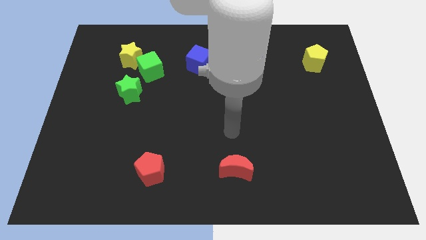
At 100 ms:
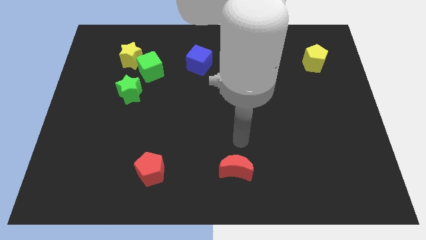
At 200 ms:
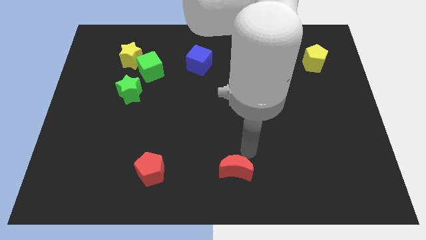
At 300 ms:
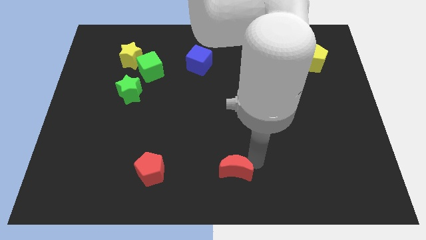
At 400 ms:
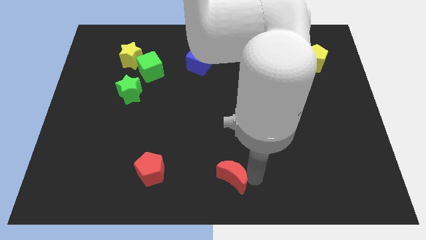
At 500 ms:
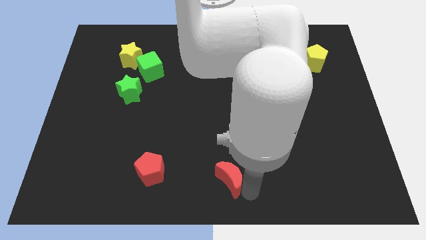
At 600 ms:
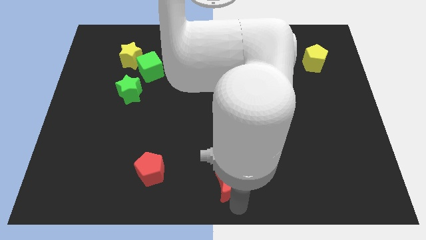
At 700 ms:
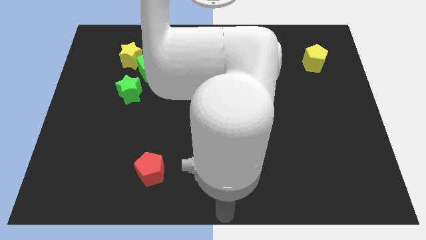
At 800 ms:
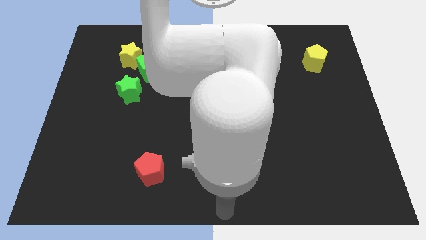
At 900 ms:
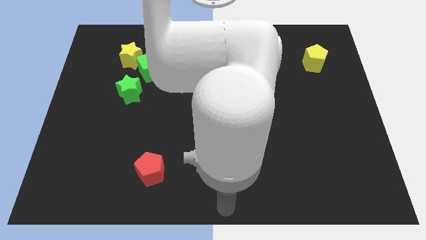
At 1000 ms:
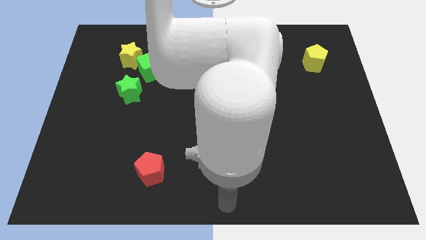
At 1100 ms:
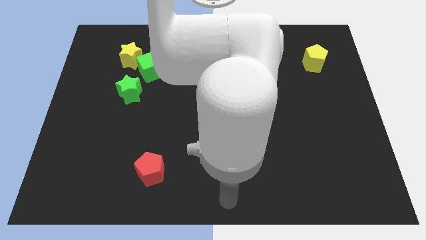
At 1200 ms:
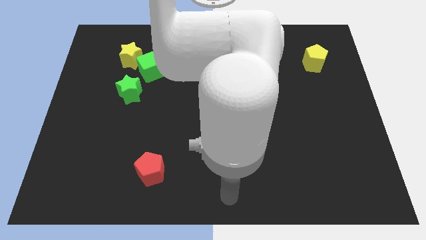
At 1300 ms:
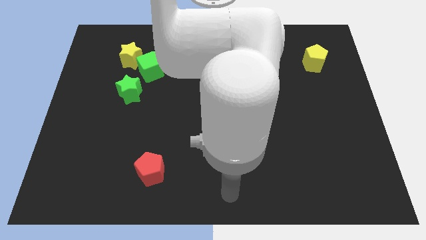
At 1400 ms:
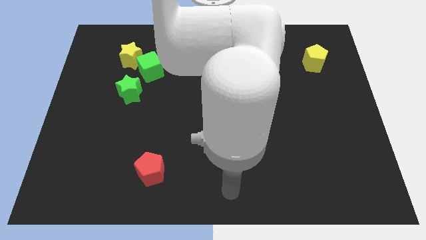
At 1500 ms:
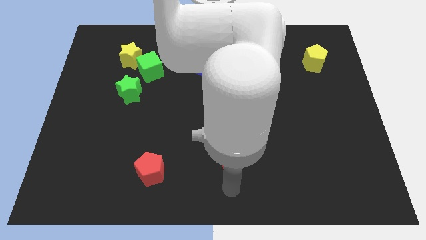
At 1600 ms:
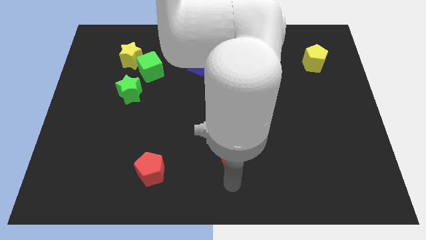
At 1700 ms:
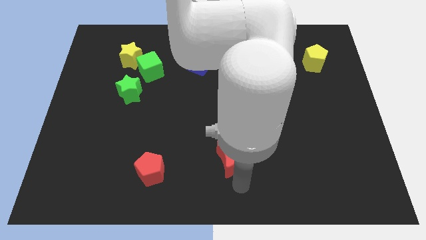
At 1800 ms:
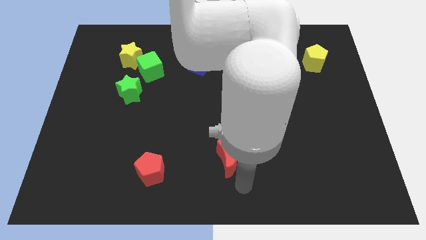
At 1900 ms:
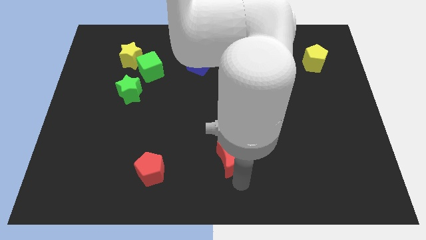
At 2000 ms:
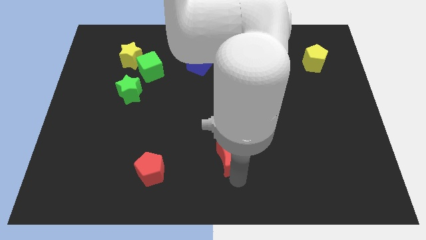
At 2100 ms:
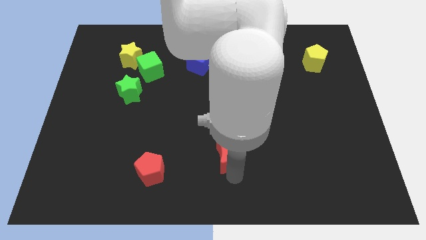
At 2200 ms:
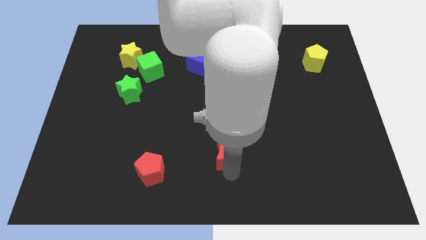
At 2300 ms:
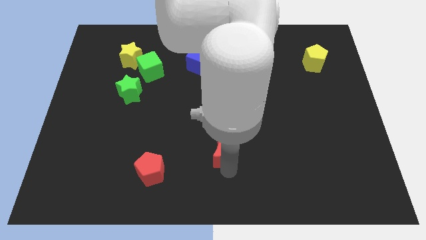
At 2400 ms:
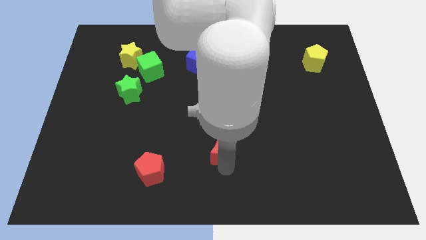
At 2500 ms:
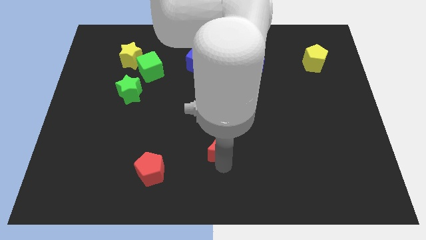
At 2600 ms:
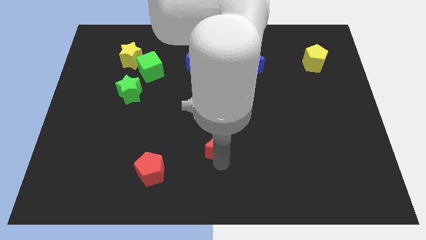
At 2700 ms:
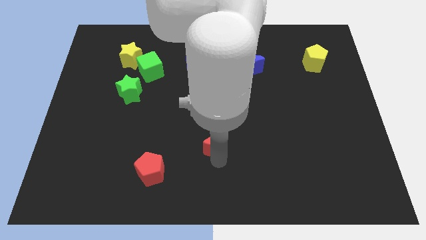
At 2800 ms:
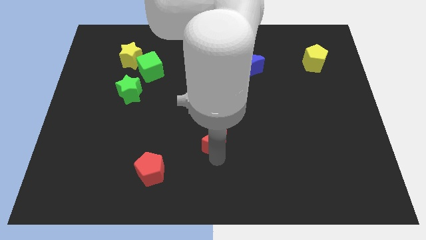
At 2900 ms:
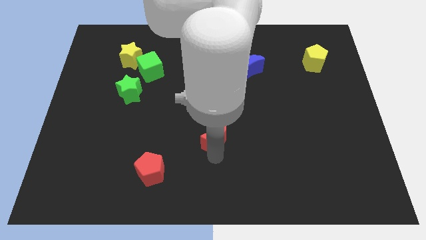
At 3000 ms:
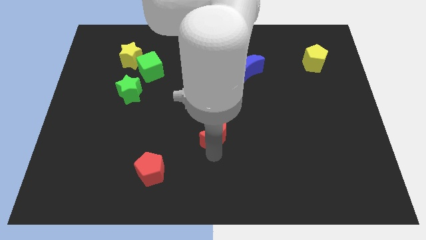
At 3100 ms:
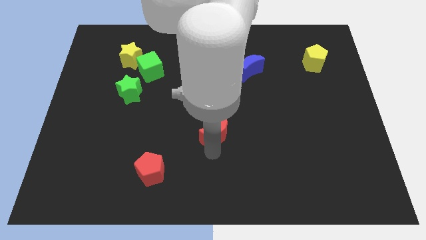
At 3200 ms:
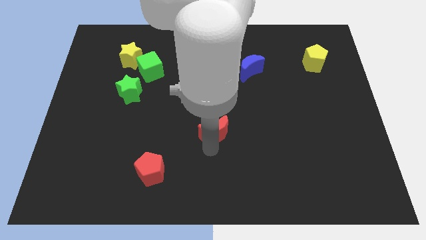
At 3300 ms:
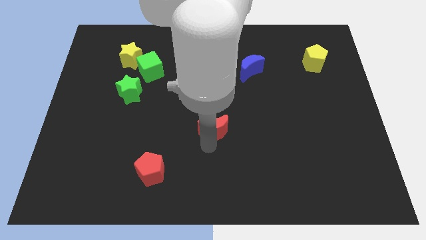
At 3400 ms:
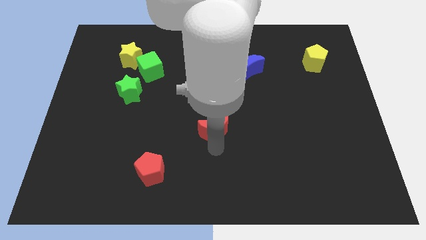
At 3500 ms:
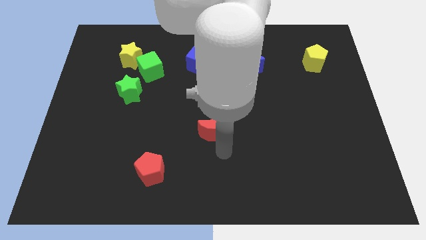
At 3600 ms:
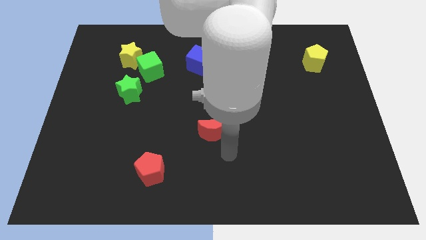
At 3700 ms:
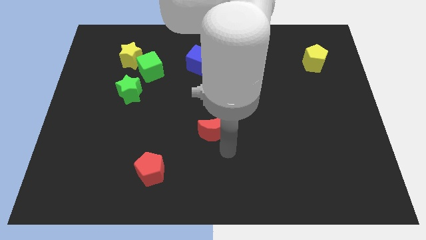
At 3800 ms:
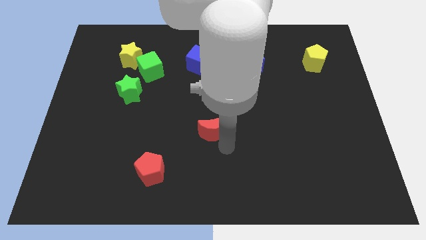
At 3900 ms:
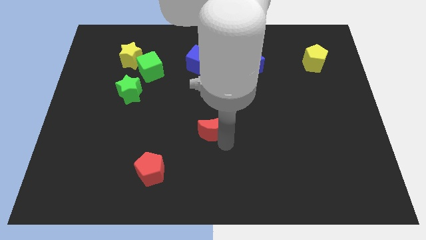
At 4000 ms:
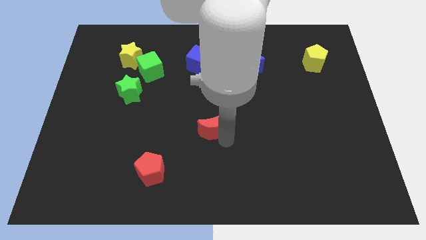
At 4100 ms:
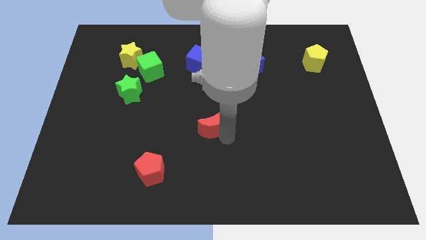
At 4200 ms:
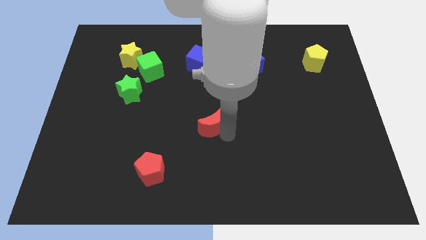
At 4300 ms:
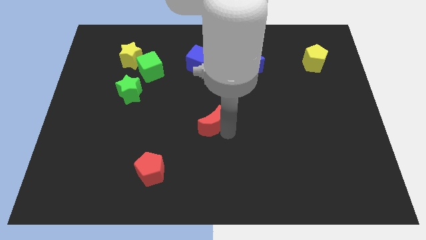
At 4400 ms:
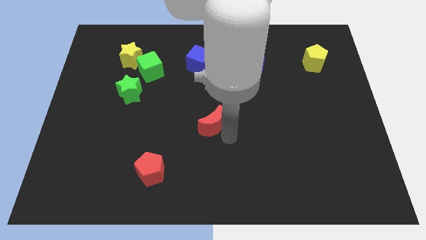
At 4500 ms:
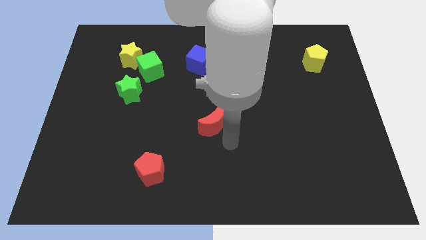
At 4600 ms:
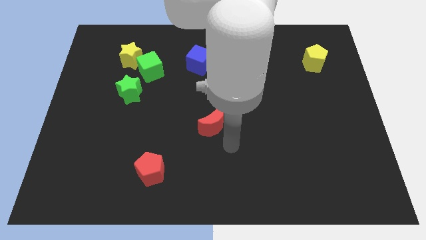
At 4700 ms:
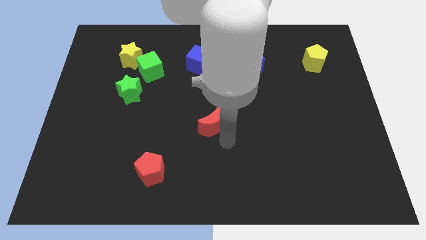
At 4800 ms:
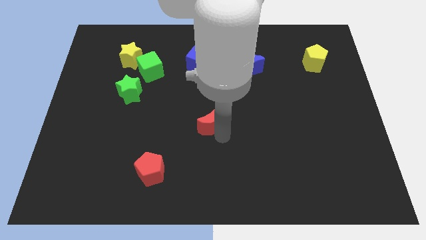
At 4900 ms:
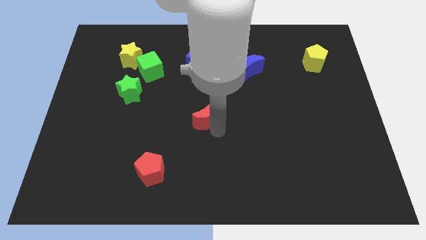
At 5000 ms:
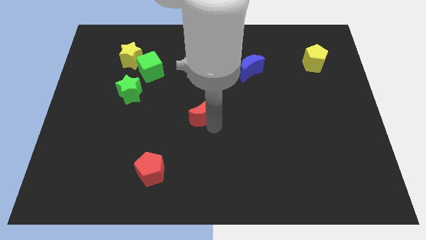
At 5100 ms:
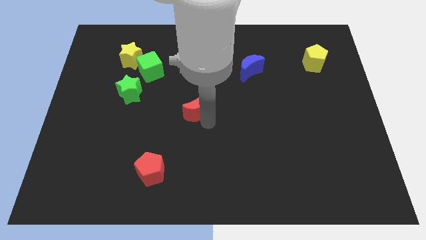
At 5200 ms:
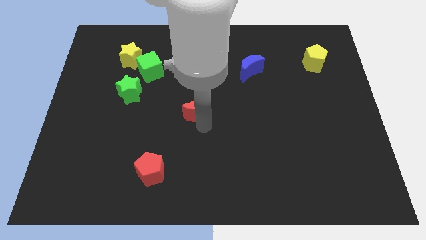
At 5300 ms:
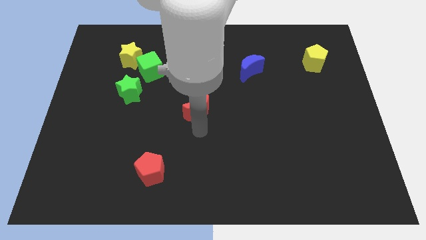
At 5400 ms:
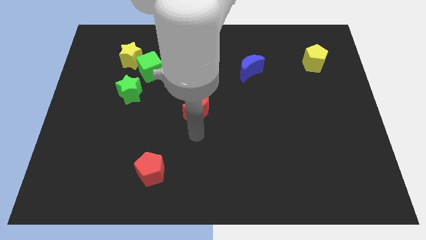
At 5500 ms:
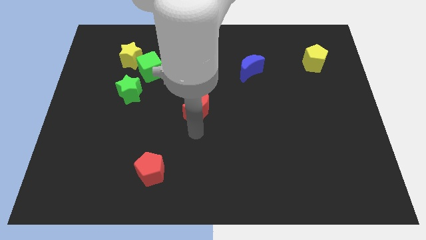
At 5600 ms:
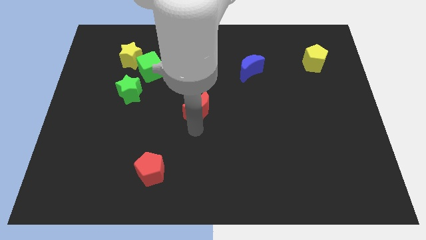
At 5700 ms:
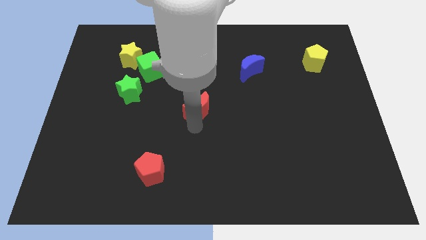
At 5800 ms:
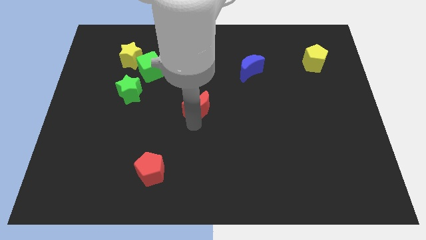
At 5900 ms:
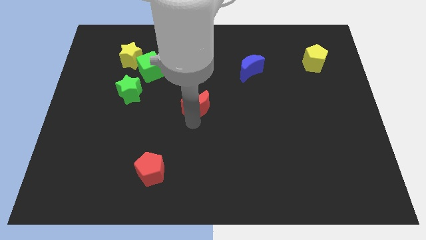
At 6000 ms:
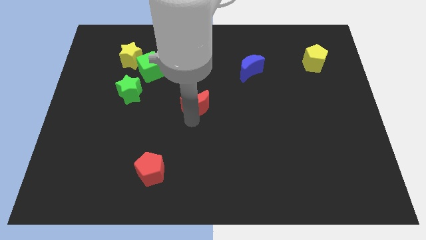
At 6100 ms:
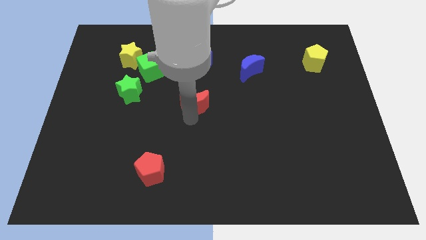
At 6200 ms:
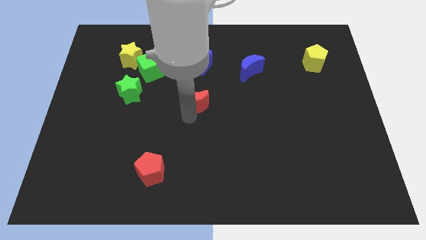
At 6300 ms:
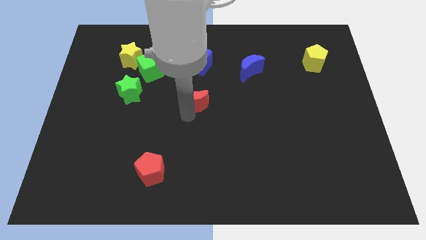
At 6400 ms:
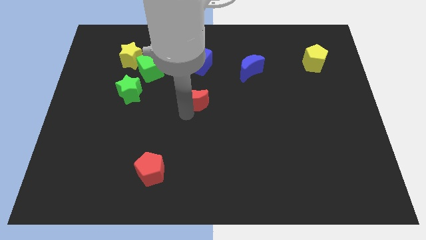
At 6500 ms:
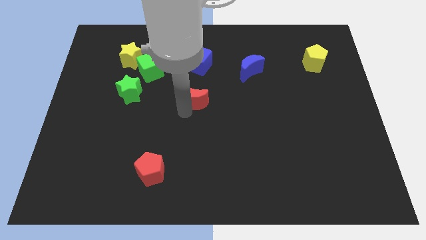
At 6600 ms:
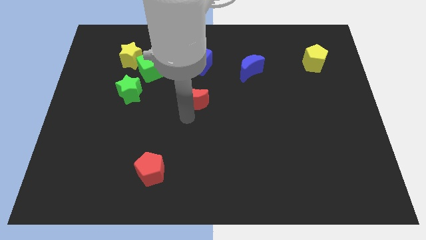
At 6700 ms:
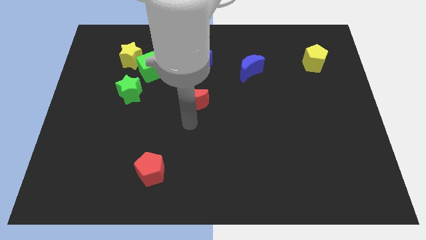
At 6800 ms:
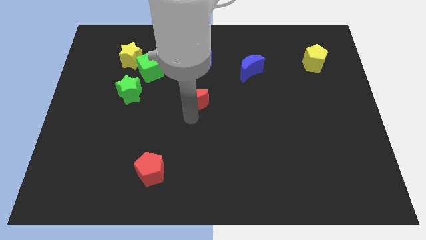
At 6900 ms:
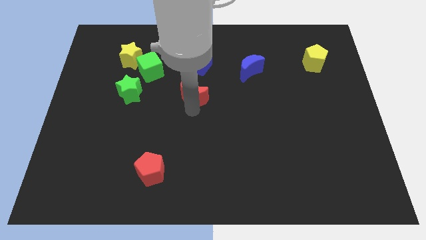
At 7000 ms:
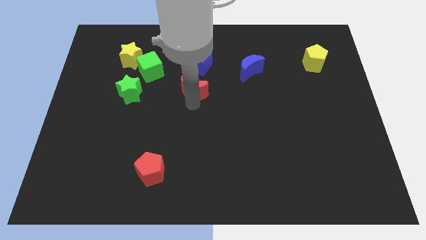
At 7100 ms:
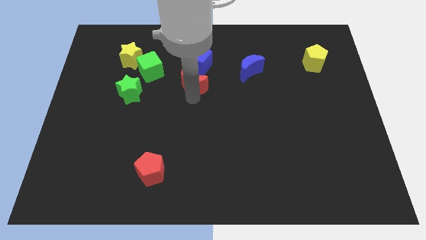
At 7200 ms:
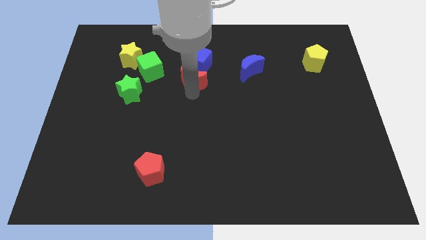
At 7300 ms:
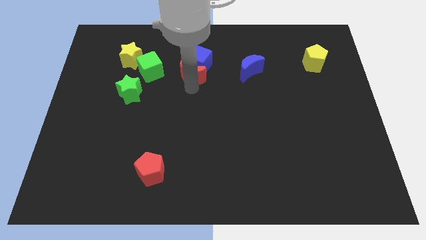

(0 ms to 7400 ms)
move the red moon next to the blue cube
